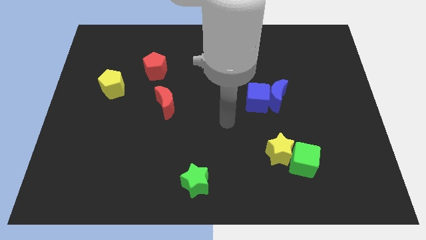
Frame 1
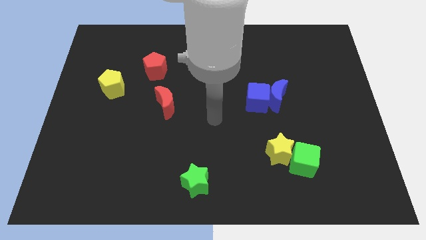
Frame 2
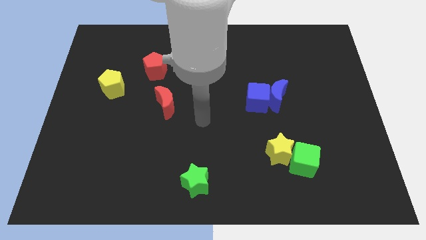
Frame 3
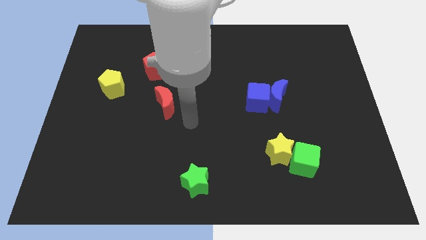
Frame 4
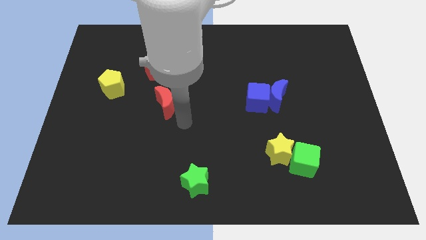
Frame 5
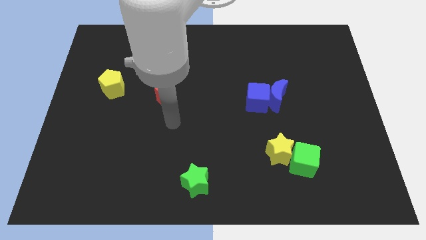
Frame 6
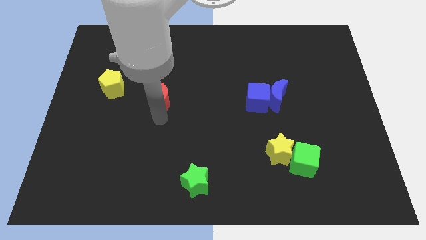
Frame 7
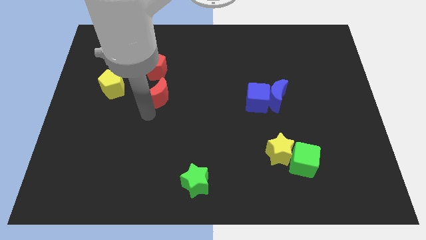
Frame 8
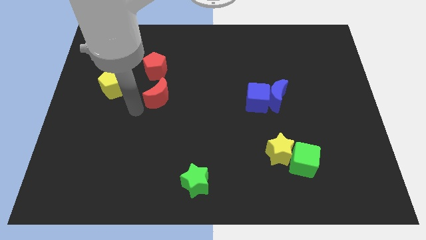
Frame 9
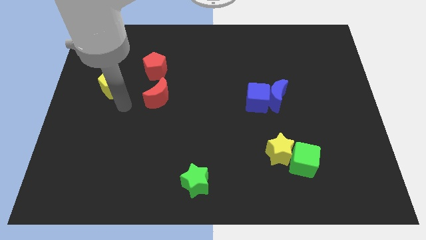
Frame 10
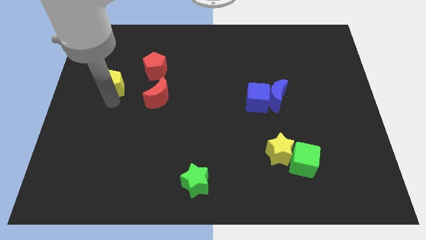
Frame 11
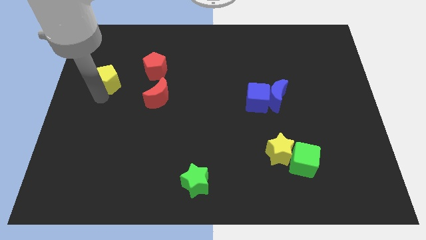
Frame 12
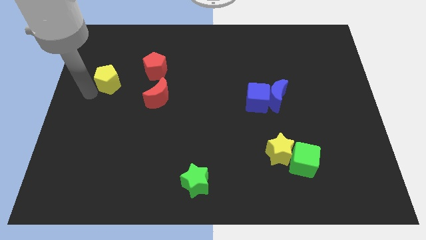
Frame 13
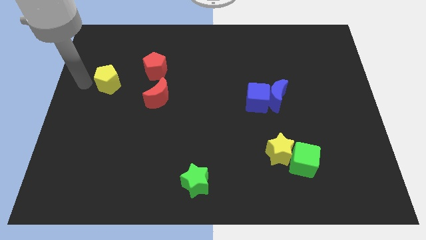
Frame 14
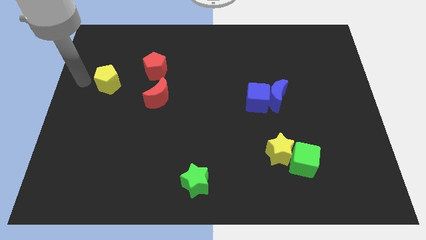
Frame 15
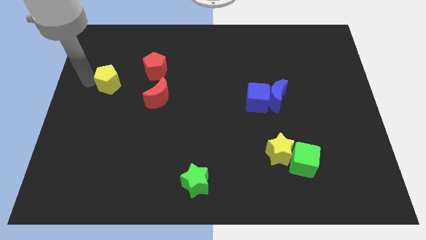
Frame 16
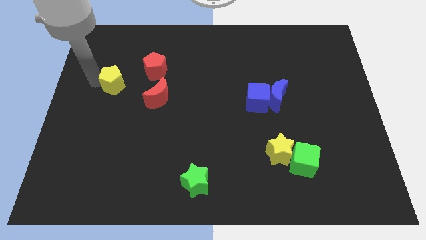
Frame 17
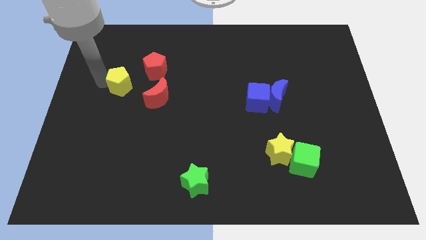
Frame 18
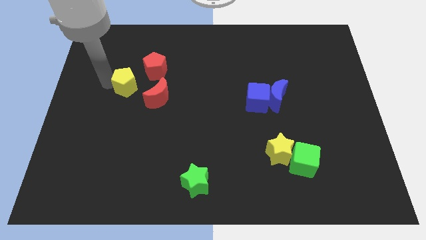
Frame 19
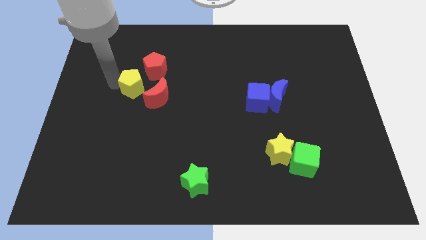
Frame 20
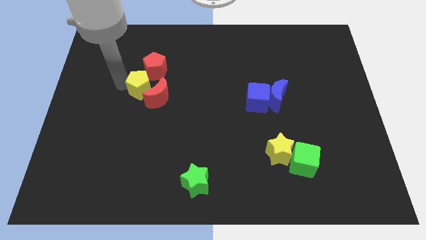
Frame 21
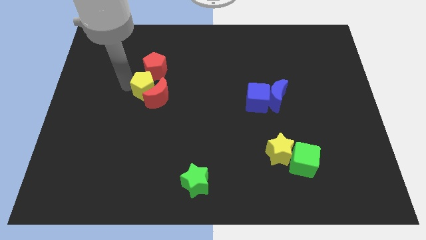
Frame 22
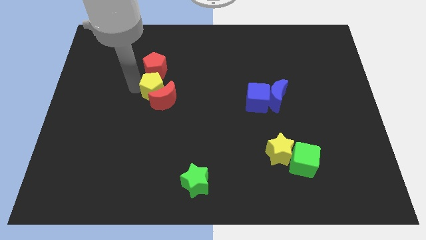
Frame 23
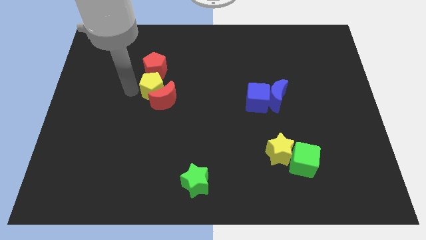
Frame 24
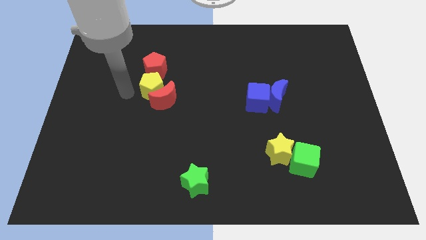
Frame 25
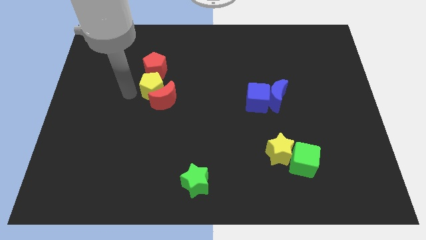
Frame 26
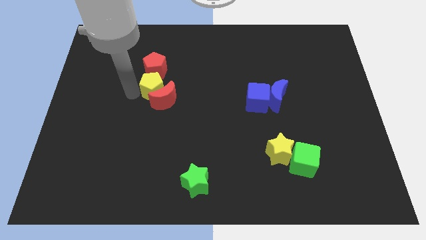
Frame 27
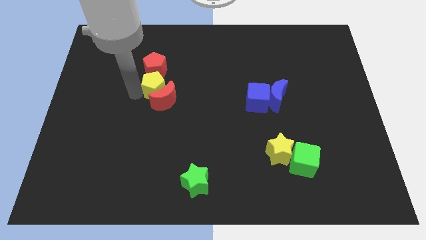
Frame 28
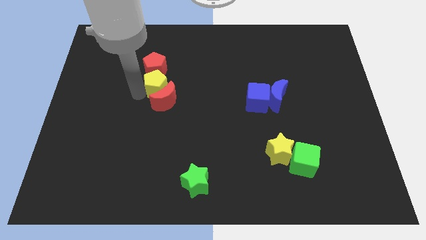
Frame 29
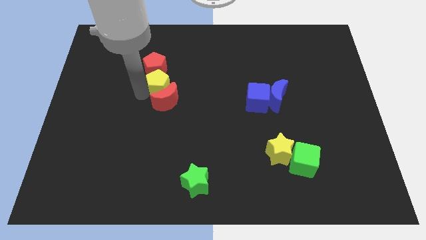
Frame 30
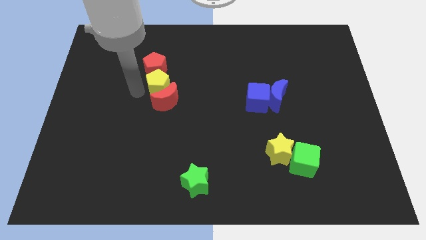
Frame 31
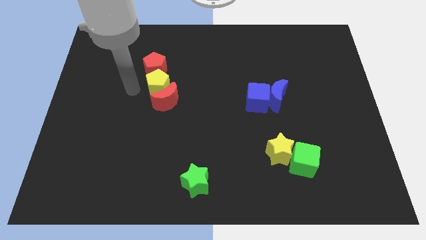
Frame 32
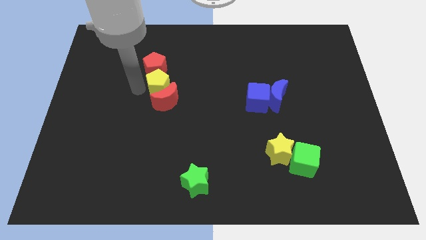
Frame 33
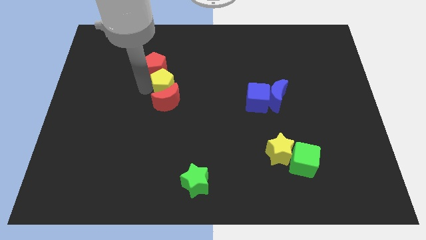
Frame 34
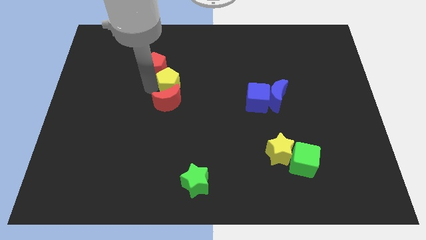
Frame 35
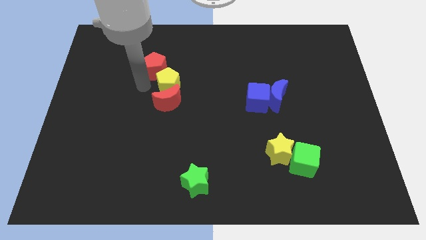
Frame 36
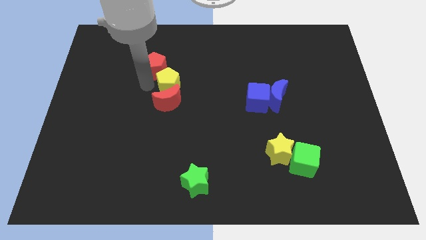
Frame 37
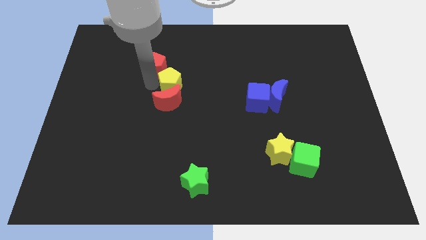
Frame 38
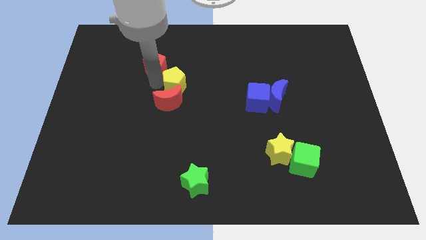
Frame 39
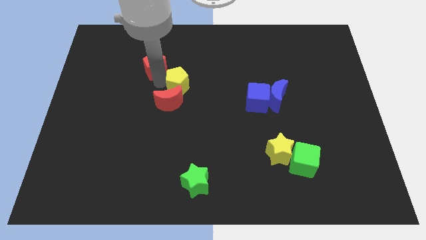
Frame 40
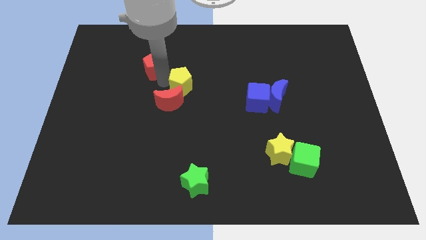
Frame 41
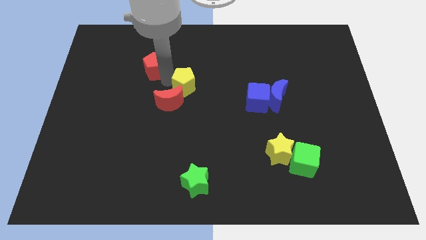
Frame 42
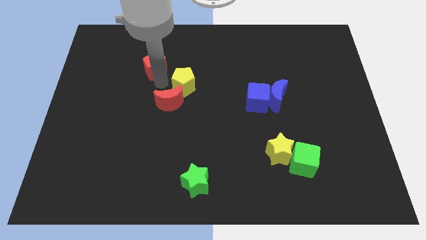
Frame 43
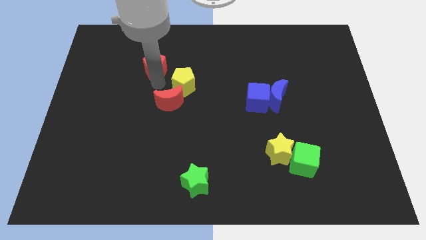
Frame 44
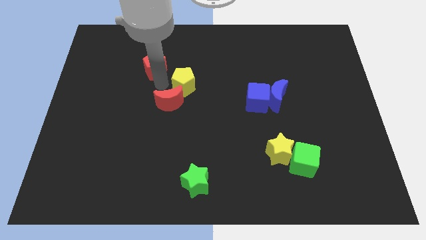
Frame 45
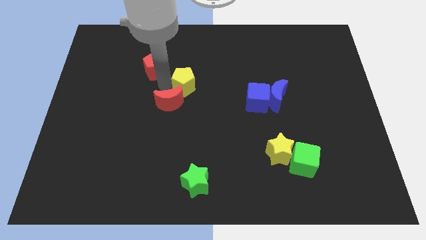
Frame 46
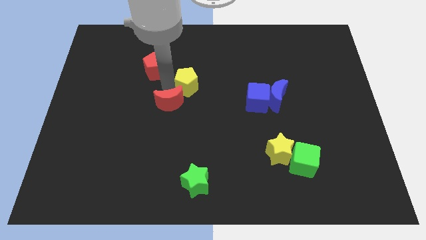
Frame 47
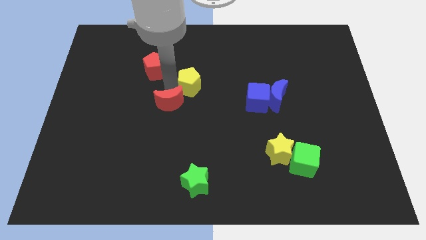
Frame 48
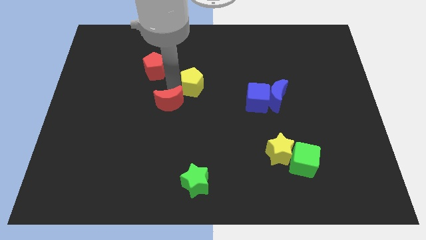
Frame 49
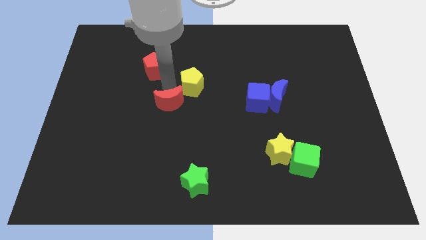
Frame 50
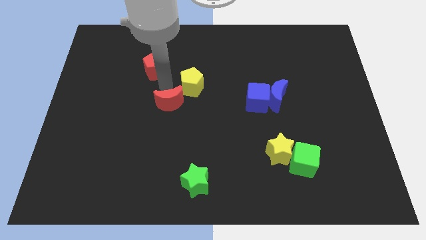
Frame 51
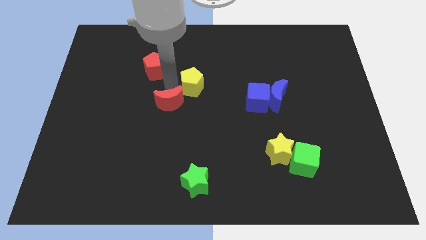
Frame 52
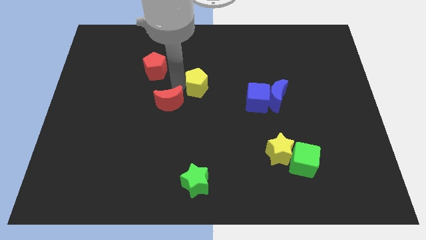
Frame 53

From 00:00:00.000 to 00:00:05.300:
slide the yellow pentagon to the right

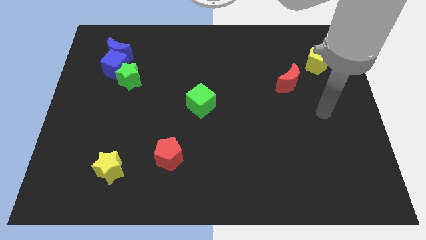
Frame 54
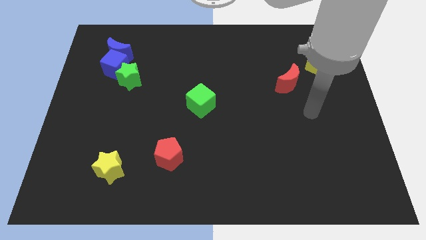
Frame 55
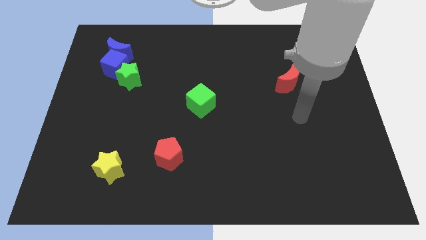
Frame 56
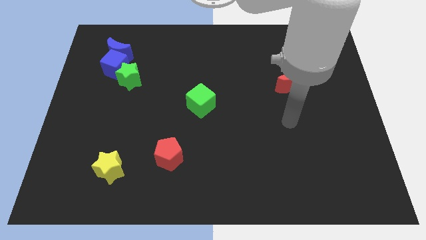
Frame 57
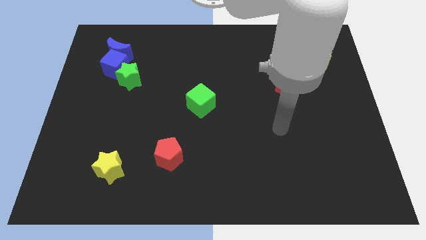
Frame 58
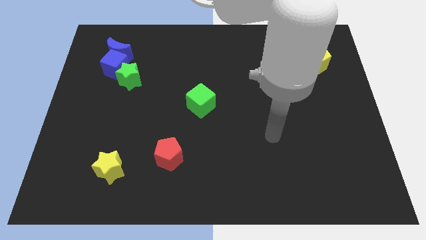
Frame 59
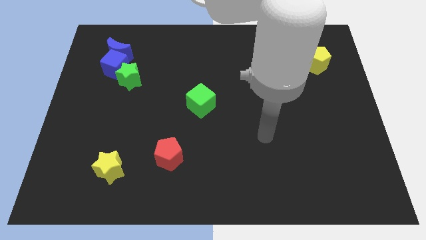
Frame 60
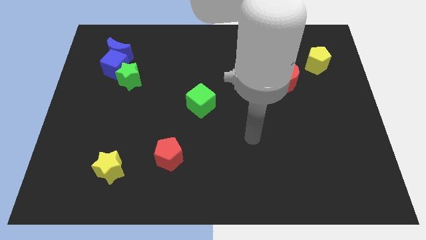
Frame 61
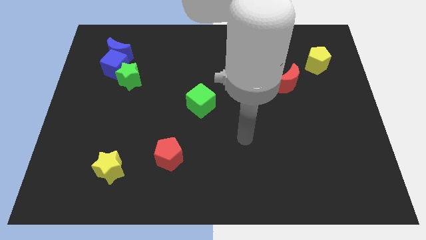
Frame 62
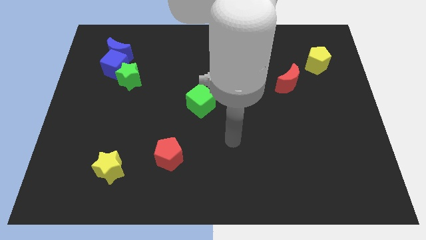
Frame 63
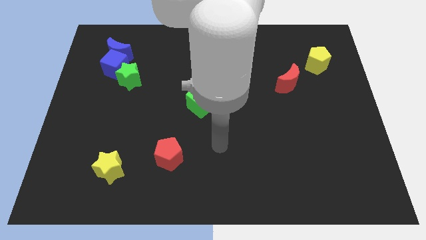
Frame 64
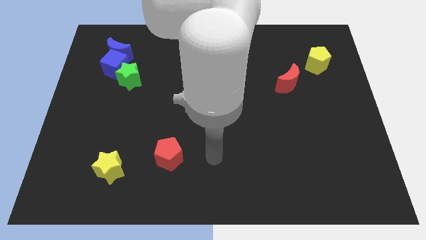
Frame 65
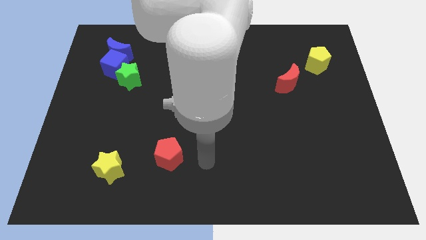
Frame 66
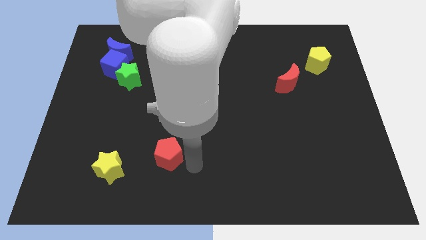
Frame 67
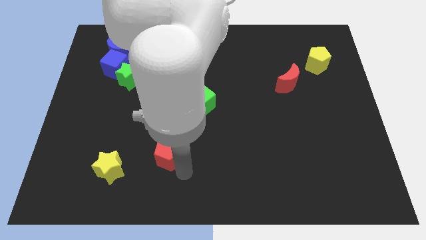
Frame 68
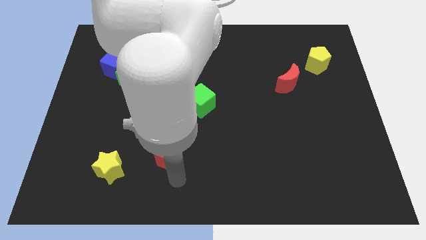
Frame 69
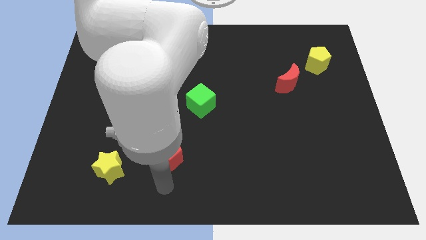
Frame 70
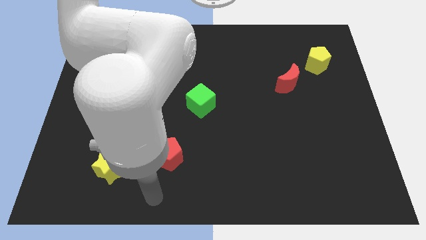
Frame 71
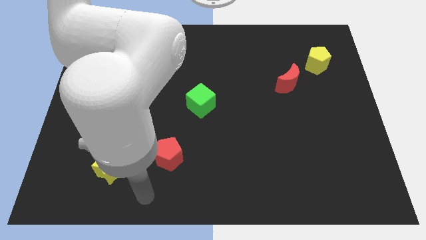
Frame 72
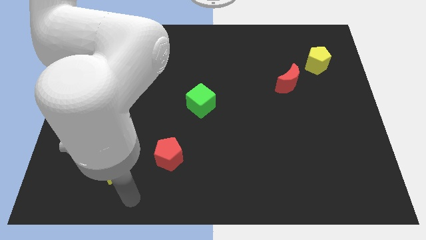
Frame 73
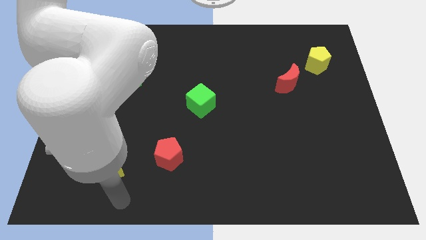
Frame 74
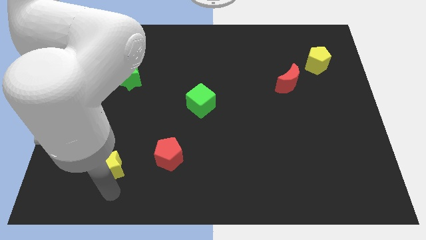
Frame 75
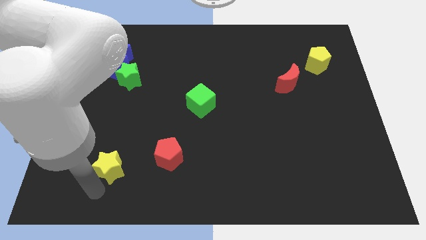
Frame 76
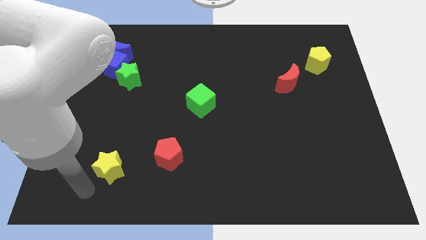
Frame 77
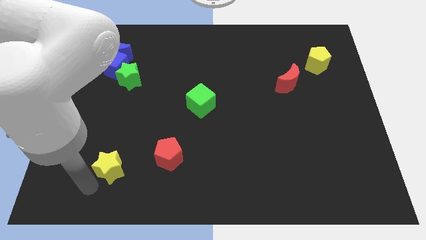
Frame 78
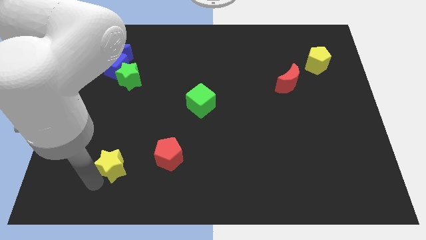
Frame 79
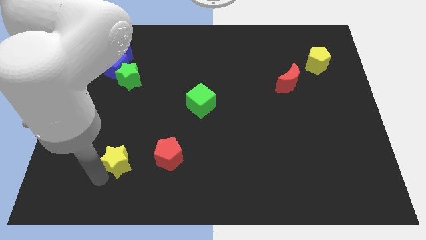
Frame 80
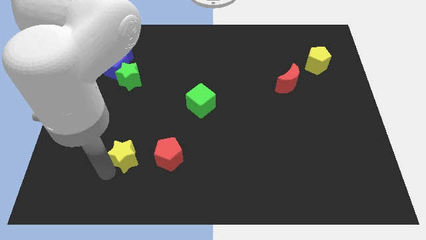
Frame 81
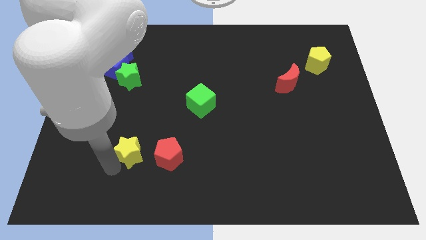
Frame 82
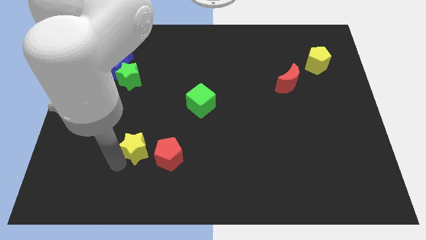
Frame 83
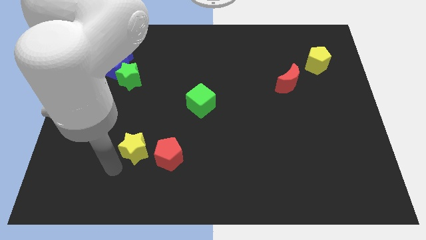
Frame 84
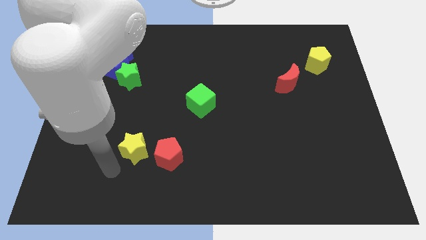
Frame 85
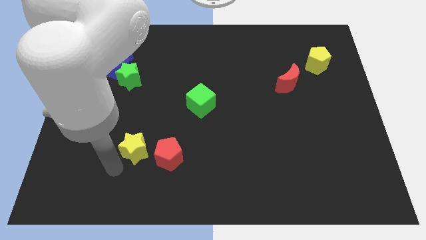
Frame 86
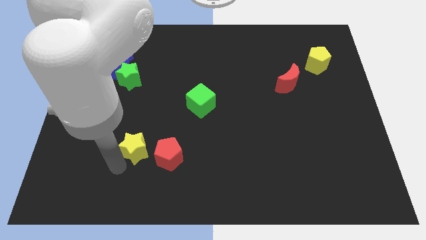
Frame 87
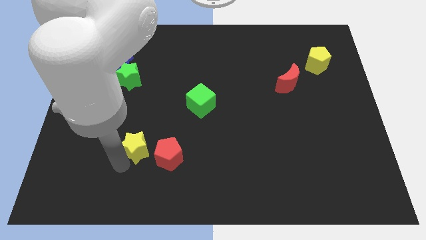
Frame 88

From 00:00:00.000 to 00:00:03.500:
move the yellow star diagonally up and to the right somewhat
